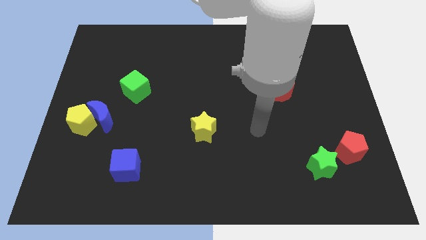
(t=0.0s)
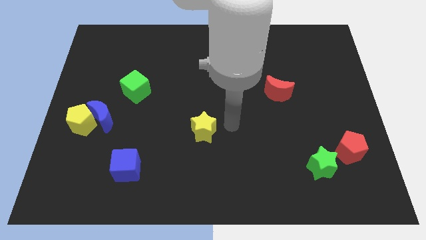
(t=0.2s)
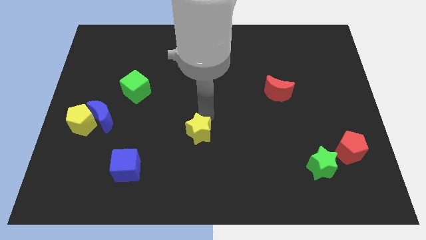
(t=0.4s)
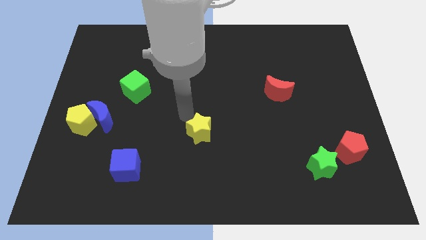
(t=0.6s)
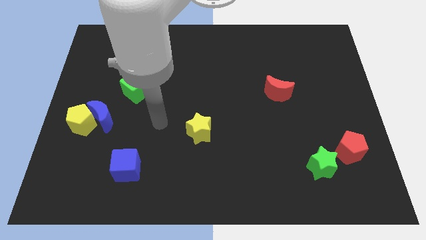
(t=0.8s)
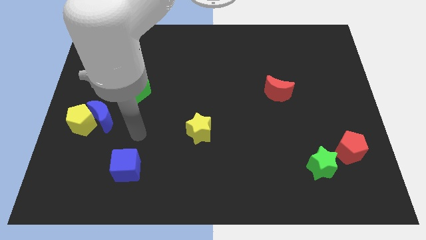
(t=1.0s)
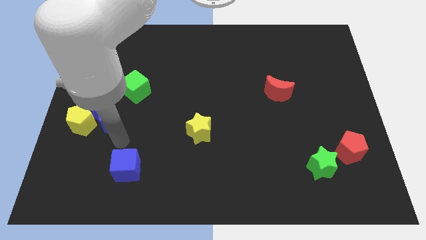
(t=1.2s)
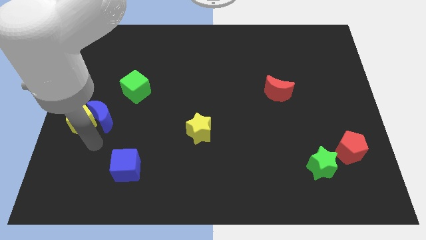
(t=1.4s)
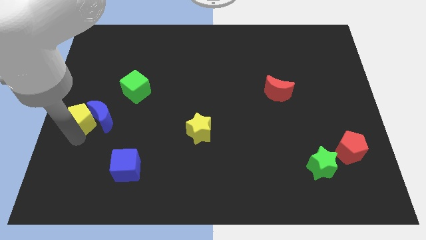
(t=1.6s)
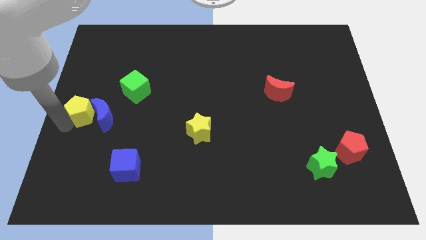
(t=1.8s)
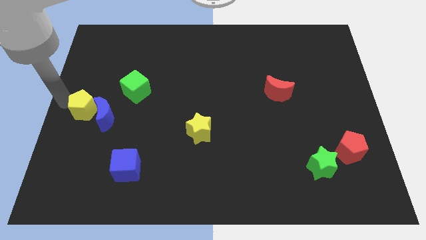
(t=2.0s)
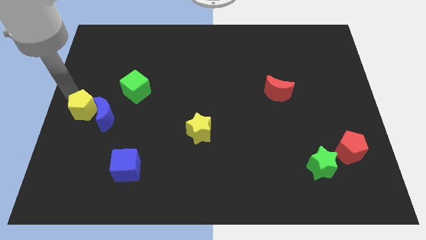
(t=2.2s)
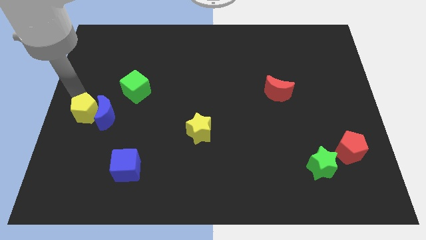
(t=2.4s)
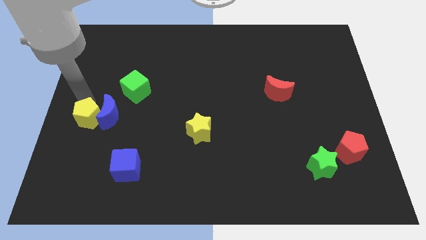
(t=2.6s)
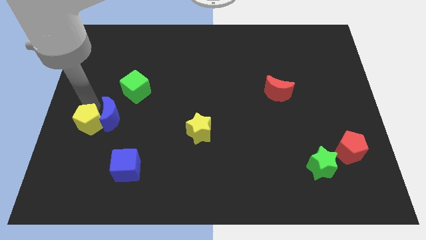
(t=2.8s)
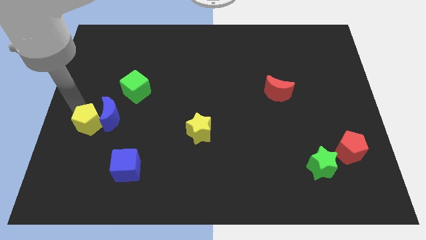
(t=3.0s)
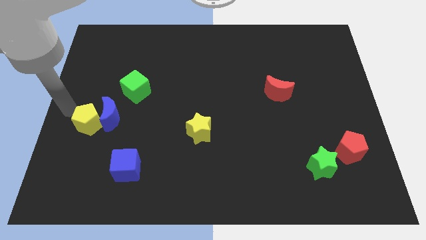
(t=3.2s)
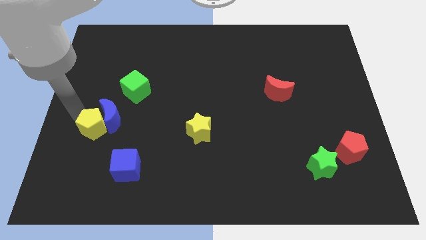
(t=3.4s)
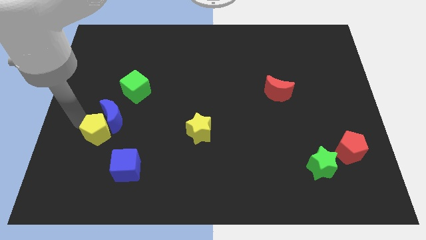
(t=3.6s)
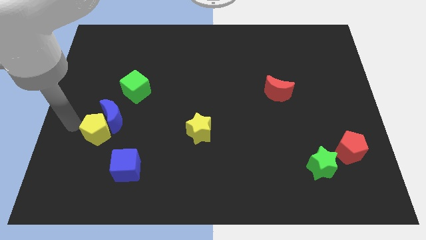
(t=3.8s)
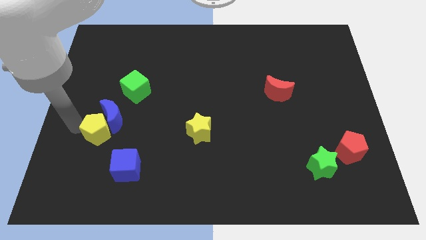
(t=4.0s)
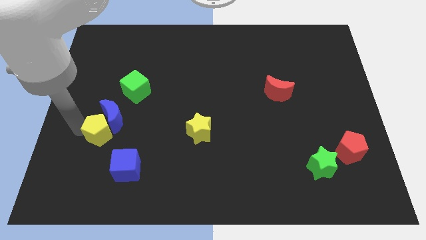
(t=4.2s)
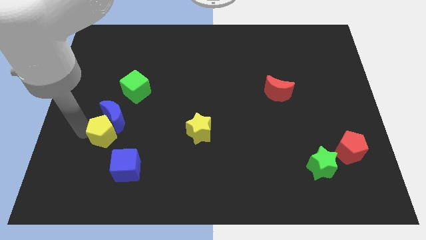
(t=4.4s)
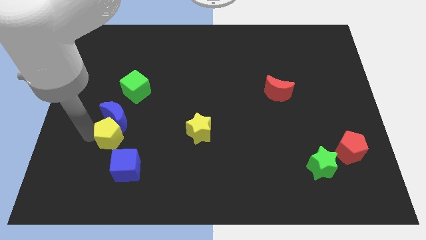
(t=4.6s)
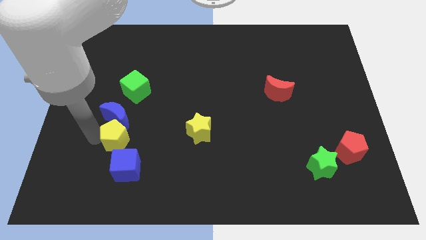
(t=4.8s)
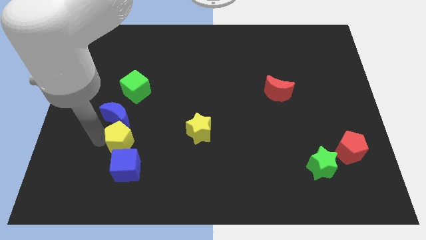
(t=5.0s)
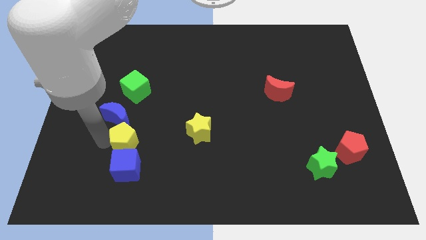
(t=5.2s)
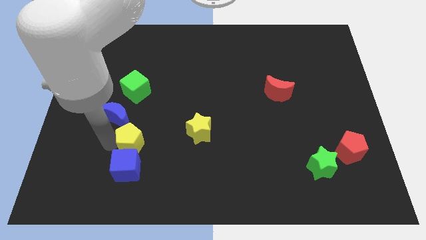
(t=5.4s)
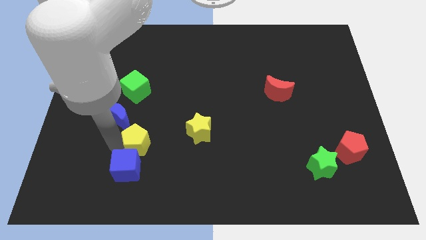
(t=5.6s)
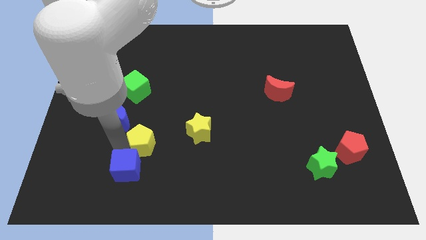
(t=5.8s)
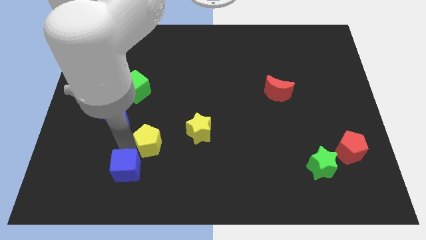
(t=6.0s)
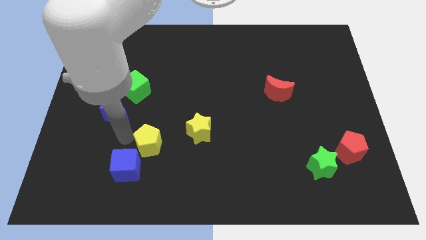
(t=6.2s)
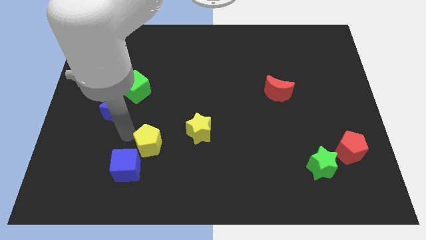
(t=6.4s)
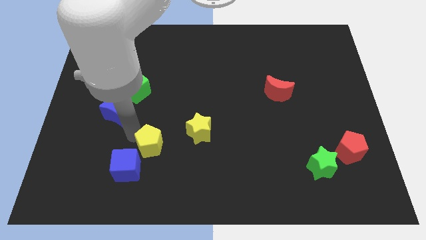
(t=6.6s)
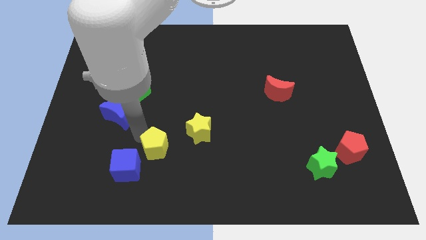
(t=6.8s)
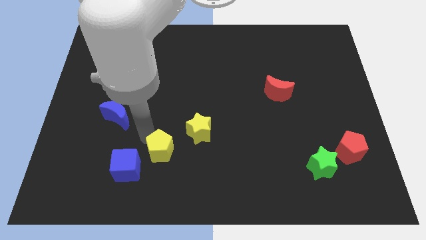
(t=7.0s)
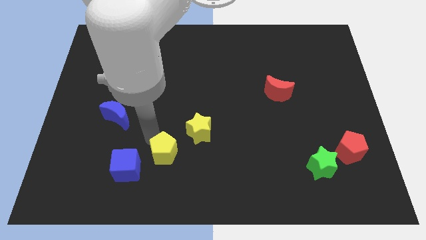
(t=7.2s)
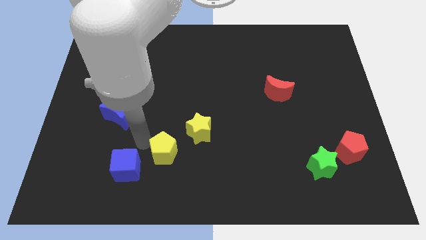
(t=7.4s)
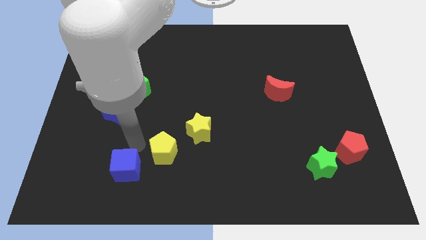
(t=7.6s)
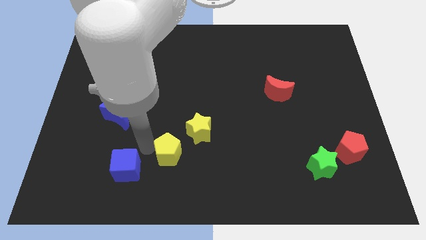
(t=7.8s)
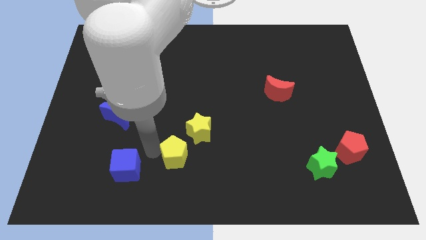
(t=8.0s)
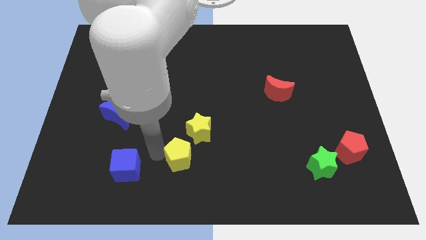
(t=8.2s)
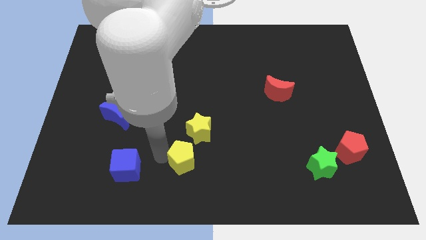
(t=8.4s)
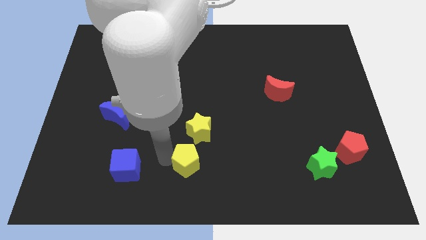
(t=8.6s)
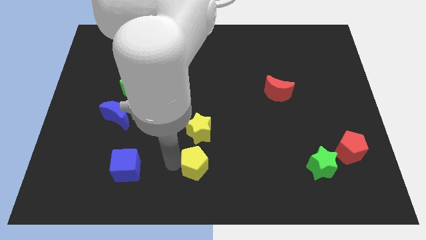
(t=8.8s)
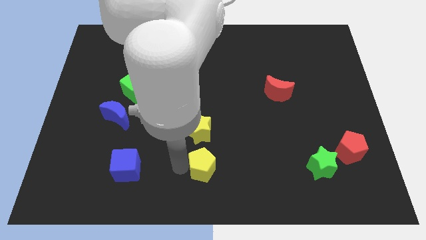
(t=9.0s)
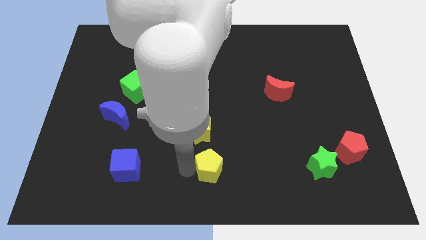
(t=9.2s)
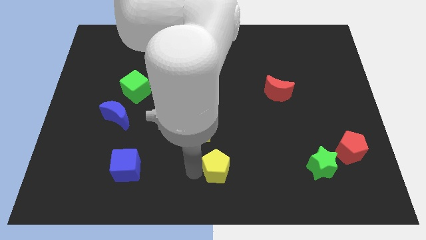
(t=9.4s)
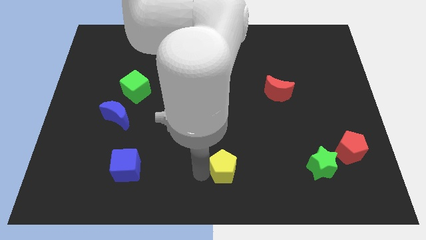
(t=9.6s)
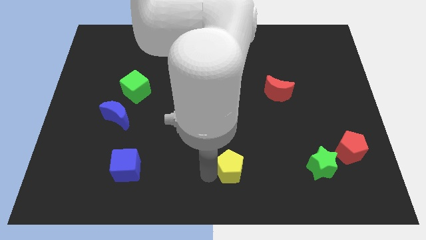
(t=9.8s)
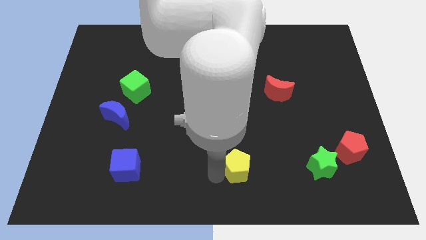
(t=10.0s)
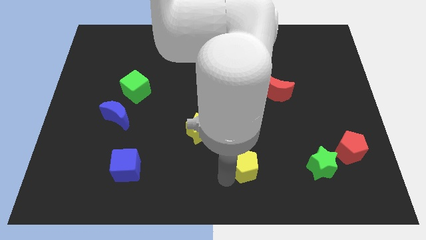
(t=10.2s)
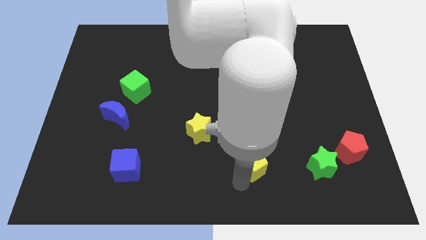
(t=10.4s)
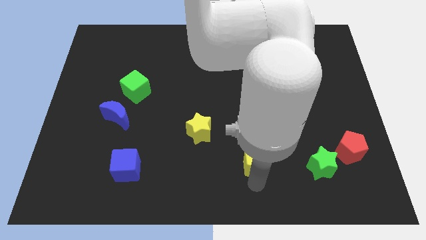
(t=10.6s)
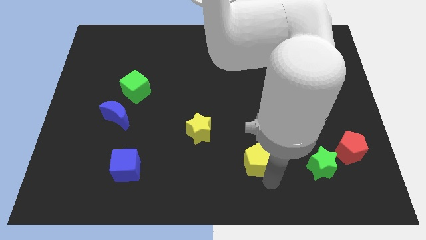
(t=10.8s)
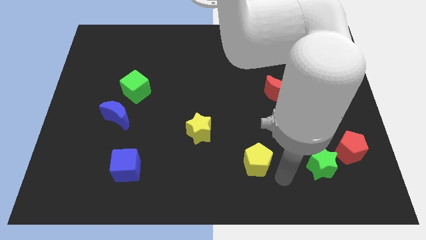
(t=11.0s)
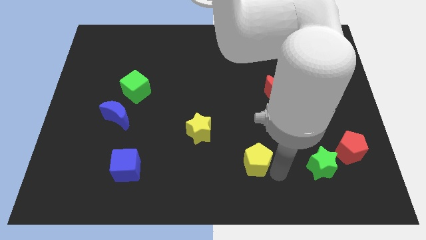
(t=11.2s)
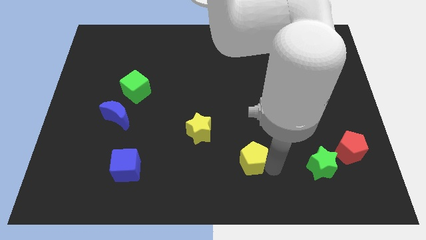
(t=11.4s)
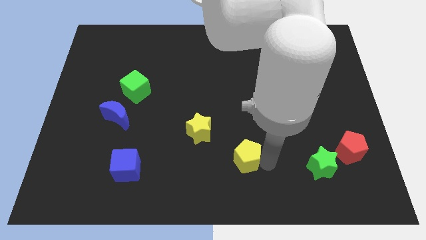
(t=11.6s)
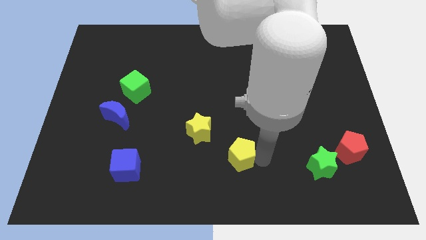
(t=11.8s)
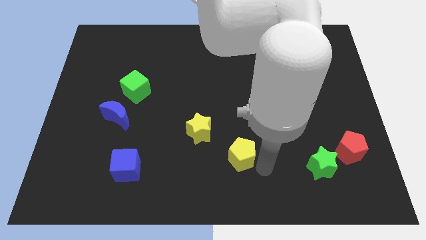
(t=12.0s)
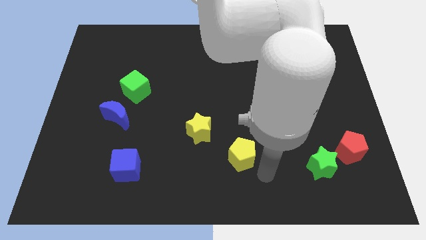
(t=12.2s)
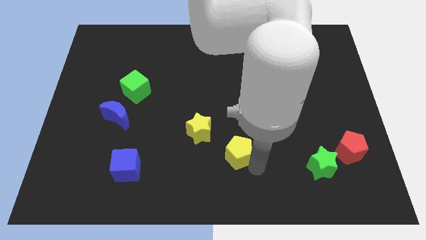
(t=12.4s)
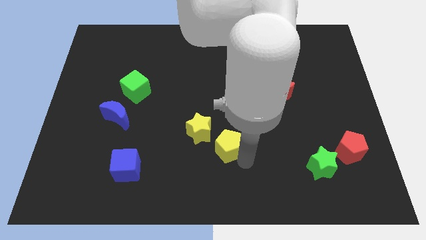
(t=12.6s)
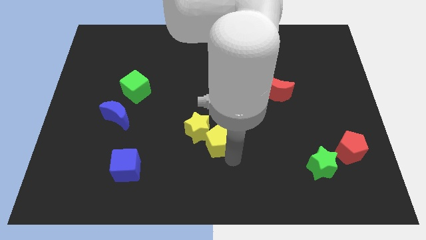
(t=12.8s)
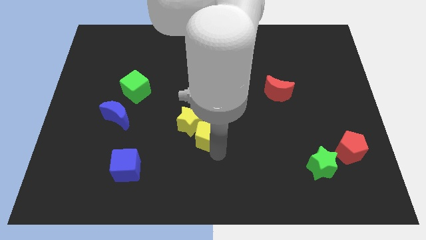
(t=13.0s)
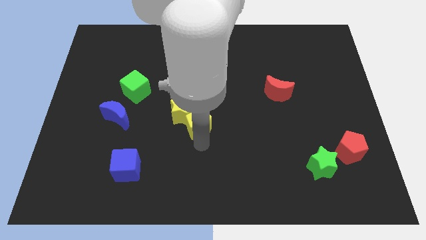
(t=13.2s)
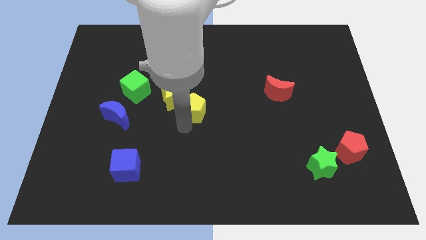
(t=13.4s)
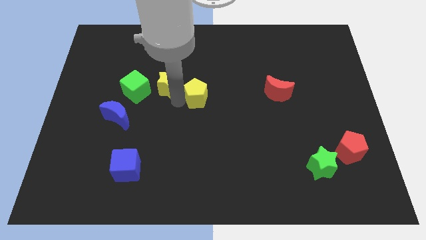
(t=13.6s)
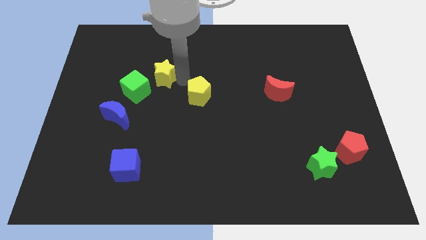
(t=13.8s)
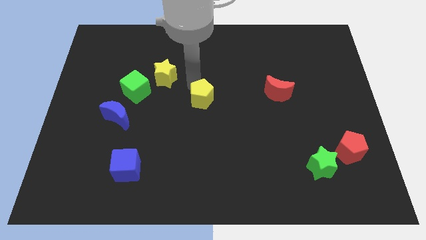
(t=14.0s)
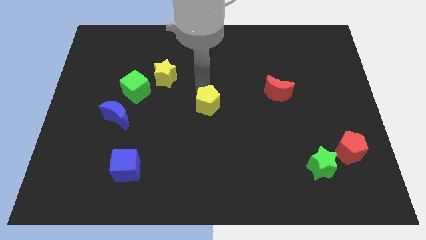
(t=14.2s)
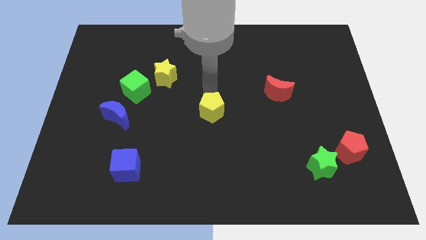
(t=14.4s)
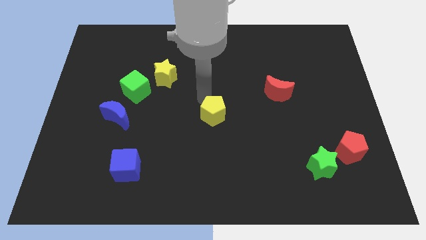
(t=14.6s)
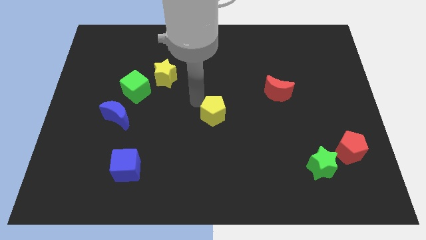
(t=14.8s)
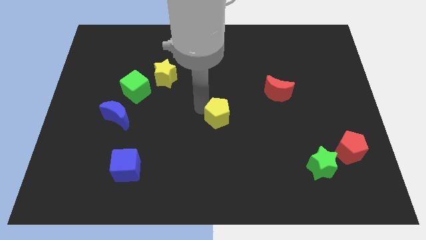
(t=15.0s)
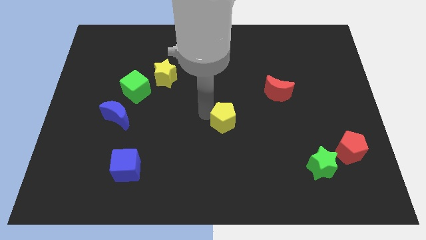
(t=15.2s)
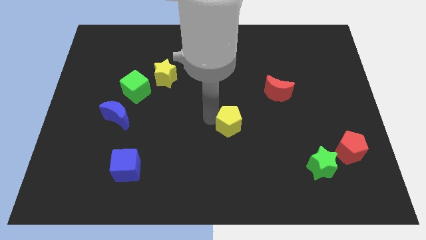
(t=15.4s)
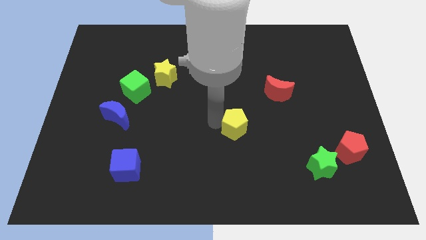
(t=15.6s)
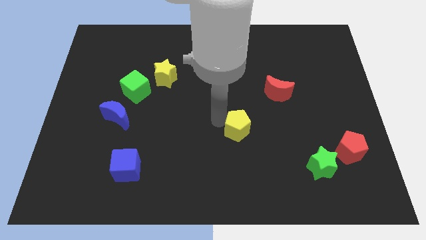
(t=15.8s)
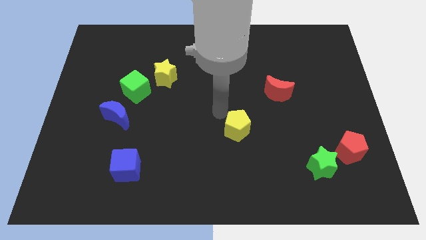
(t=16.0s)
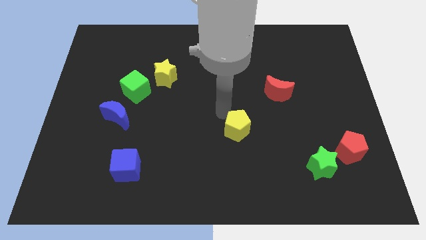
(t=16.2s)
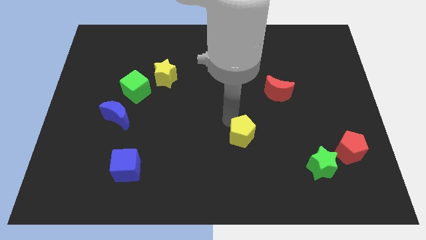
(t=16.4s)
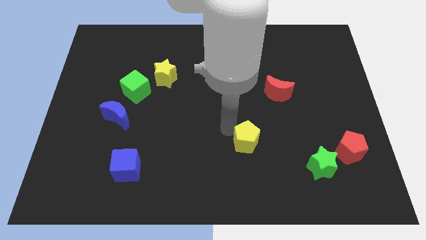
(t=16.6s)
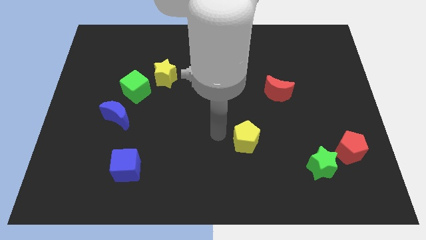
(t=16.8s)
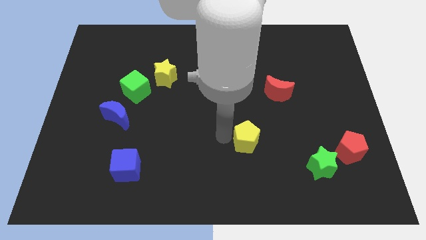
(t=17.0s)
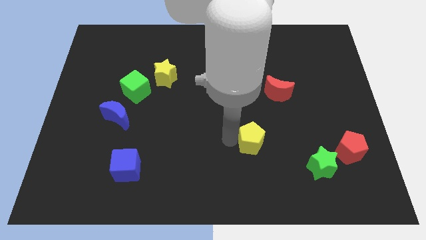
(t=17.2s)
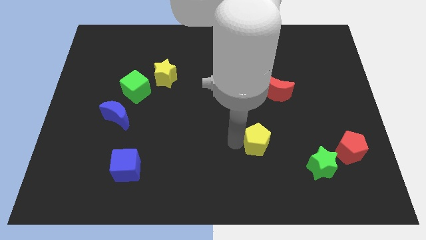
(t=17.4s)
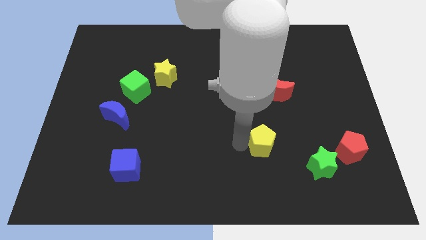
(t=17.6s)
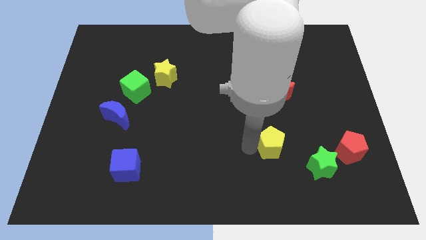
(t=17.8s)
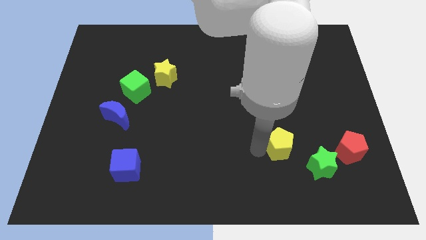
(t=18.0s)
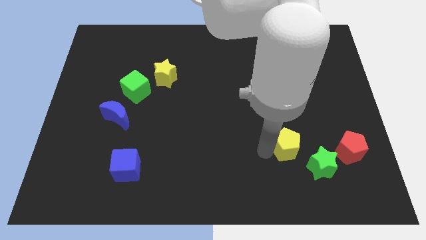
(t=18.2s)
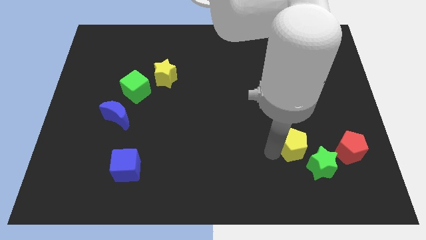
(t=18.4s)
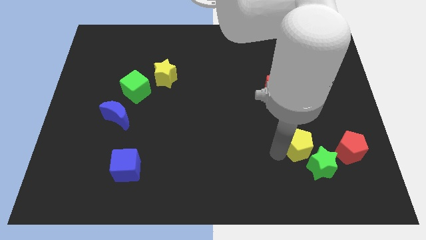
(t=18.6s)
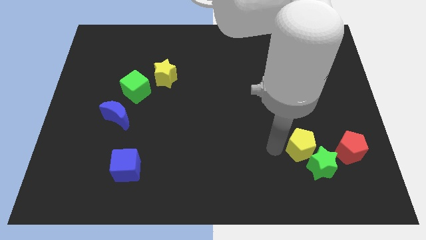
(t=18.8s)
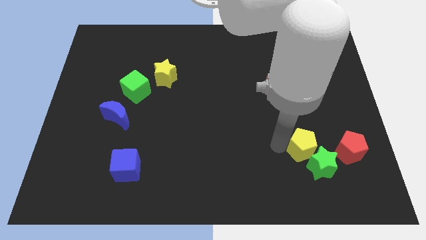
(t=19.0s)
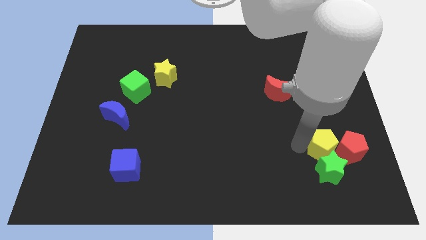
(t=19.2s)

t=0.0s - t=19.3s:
put the yellow pentagon towards the red pentagon
